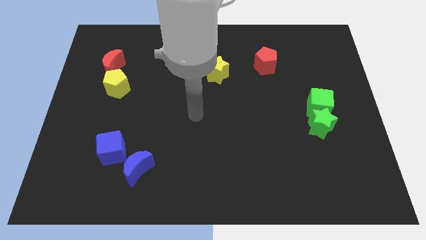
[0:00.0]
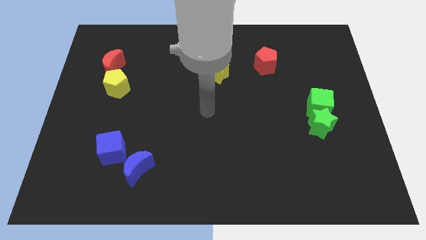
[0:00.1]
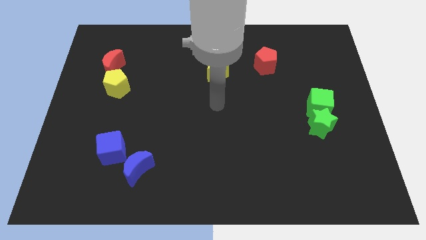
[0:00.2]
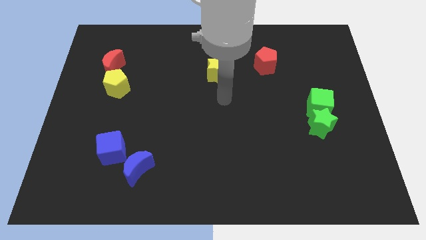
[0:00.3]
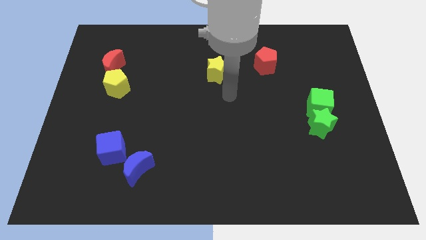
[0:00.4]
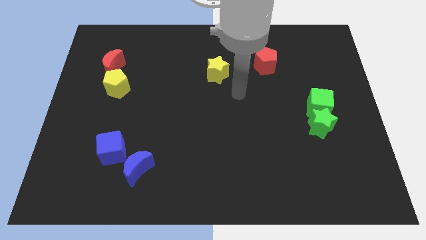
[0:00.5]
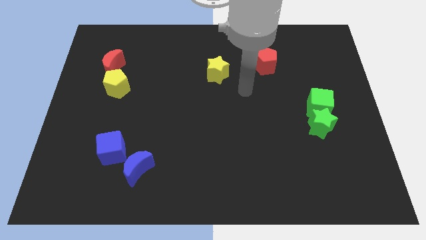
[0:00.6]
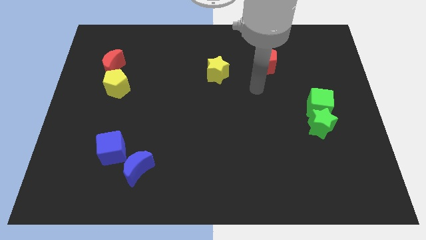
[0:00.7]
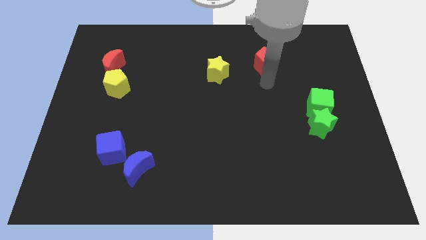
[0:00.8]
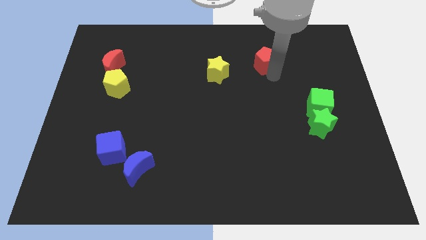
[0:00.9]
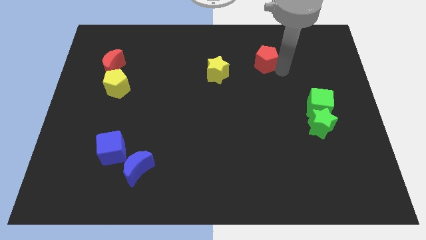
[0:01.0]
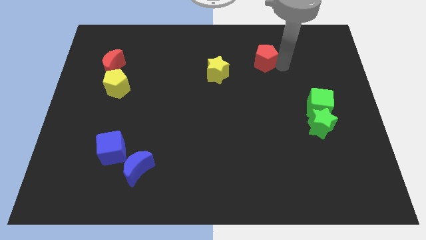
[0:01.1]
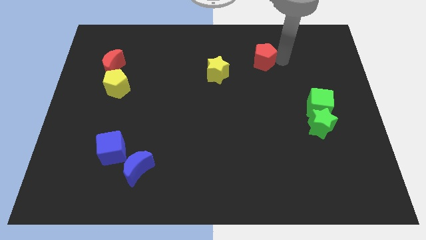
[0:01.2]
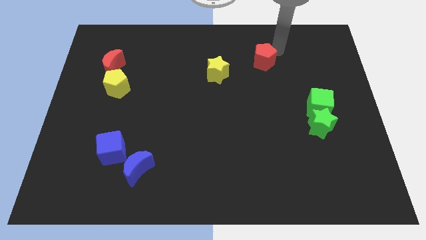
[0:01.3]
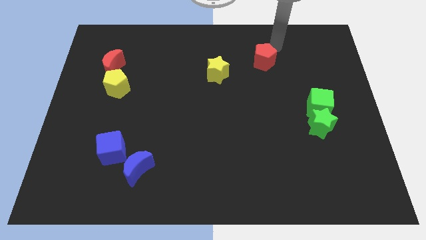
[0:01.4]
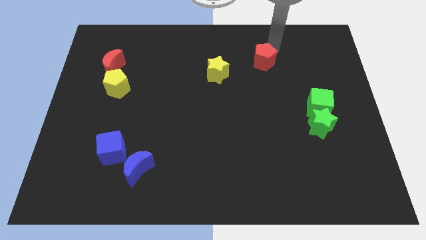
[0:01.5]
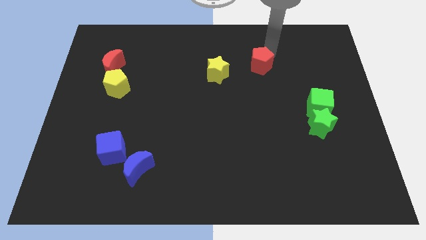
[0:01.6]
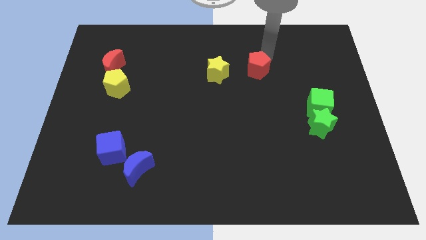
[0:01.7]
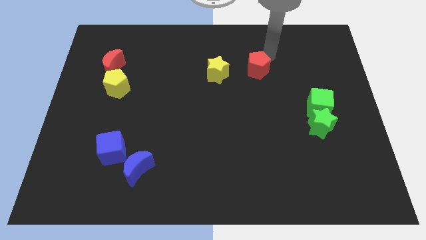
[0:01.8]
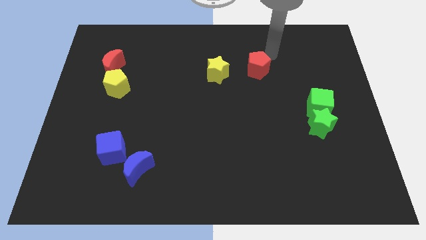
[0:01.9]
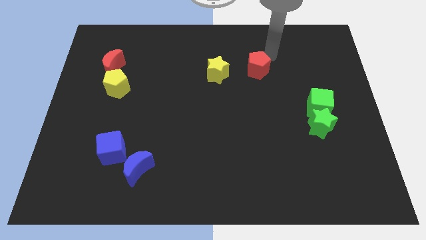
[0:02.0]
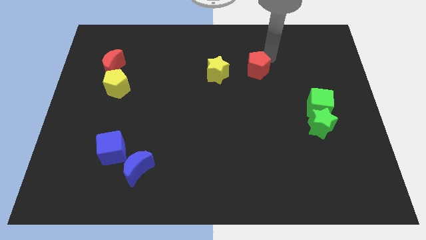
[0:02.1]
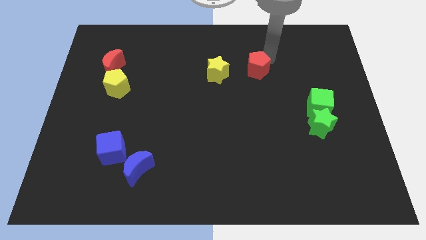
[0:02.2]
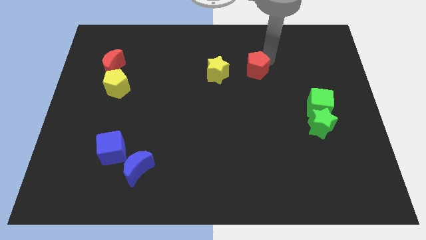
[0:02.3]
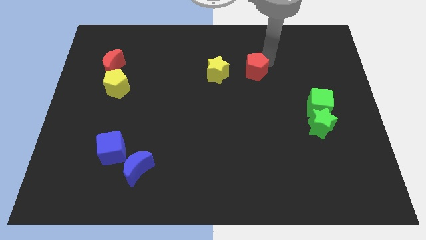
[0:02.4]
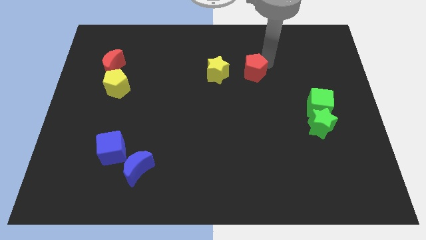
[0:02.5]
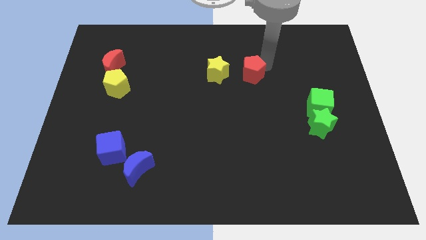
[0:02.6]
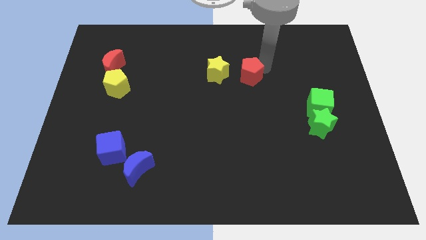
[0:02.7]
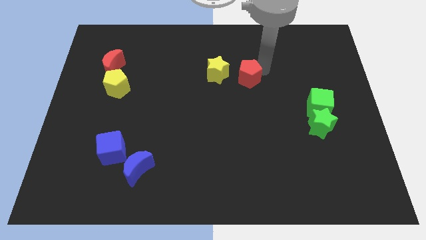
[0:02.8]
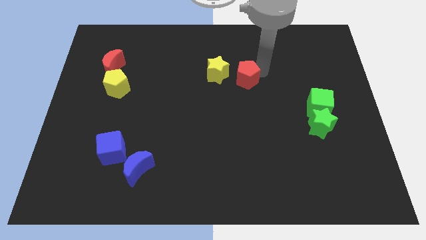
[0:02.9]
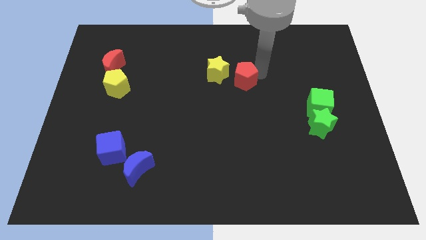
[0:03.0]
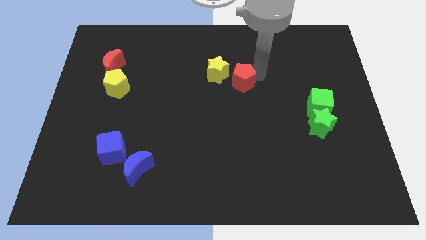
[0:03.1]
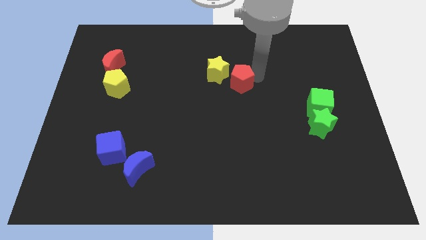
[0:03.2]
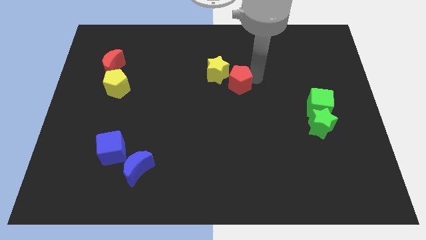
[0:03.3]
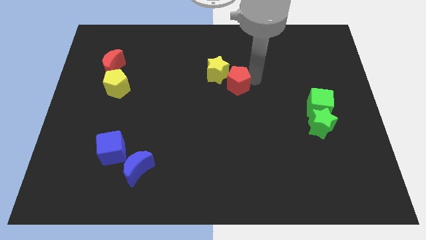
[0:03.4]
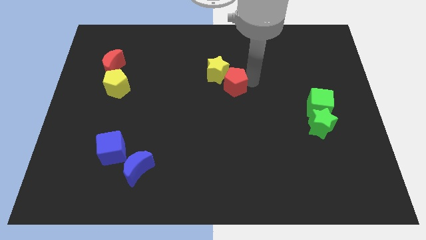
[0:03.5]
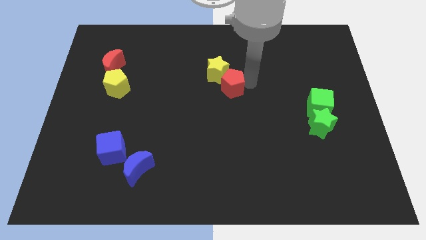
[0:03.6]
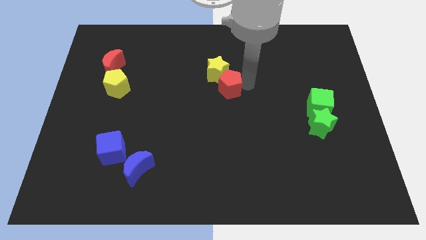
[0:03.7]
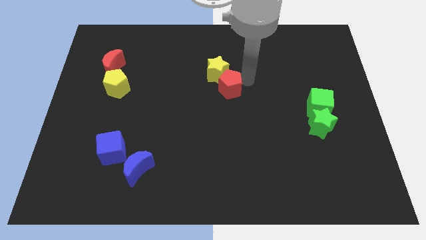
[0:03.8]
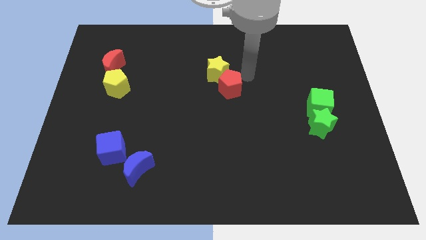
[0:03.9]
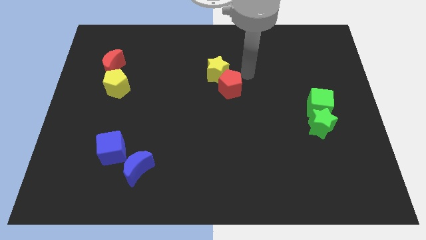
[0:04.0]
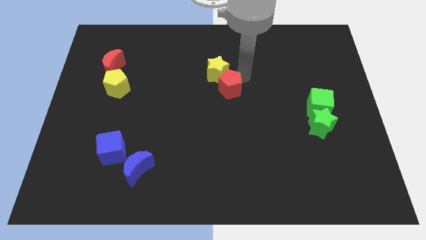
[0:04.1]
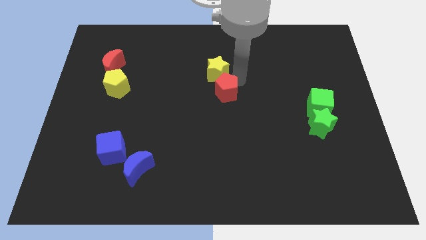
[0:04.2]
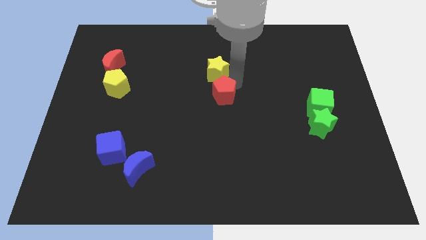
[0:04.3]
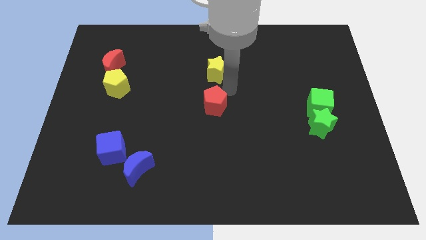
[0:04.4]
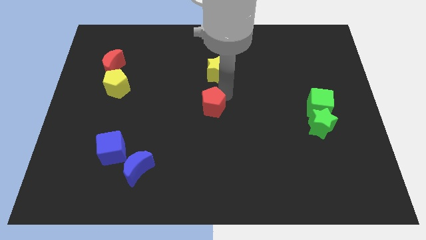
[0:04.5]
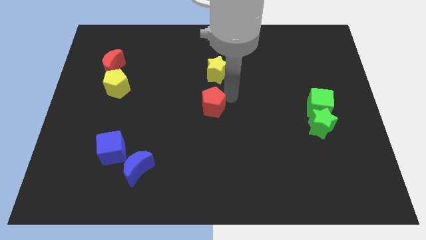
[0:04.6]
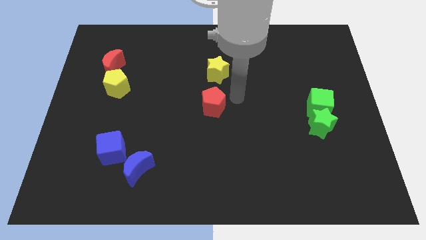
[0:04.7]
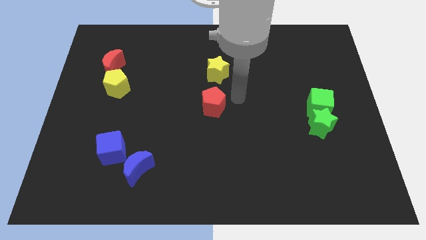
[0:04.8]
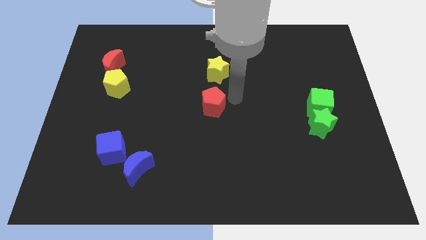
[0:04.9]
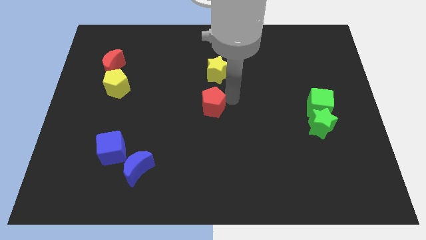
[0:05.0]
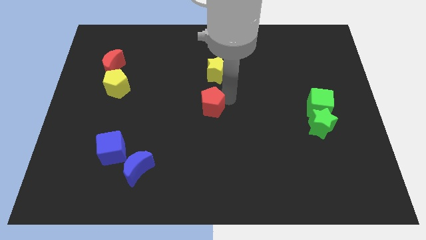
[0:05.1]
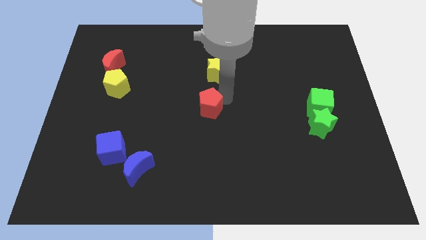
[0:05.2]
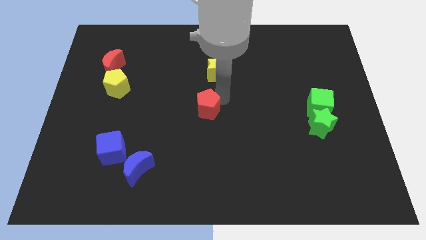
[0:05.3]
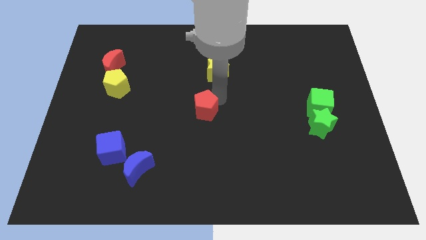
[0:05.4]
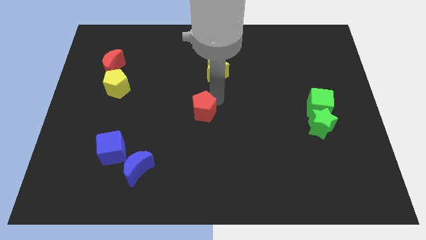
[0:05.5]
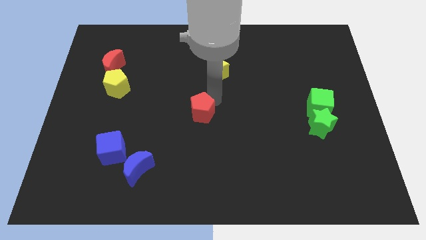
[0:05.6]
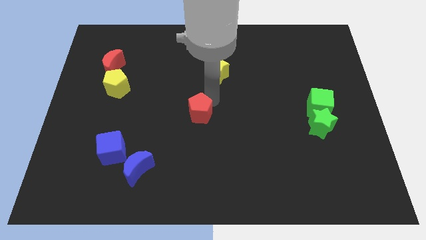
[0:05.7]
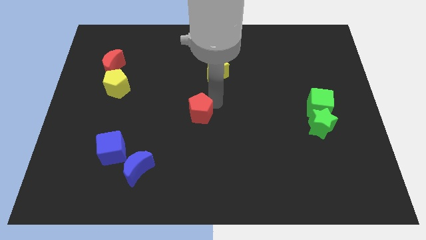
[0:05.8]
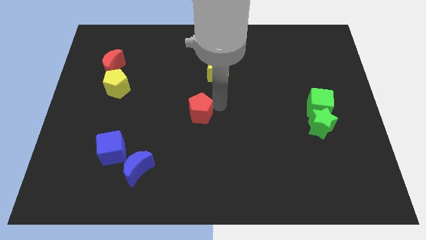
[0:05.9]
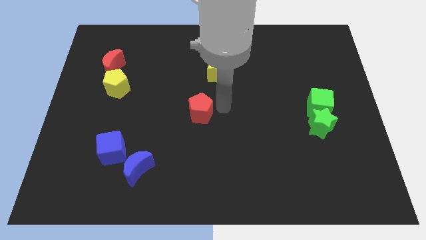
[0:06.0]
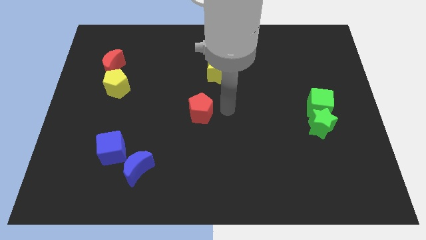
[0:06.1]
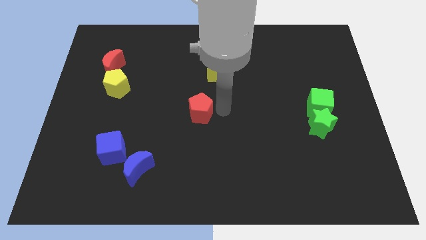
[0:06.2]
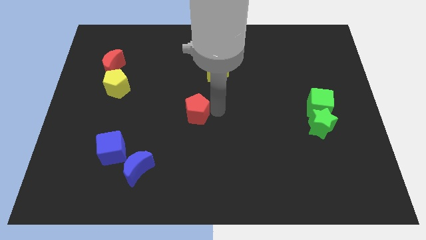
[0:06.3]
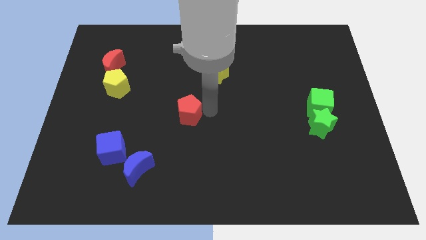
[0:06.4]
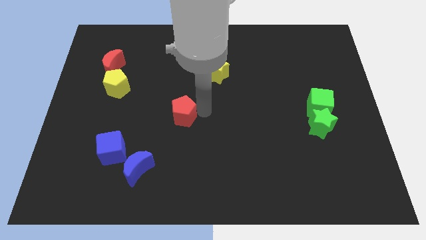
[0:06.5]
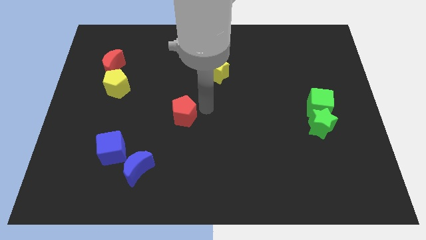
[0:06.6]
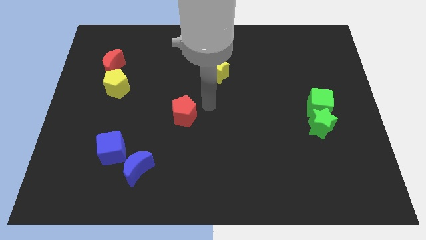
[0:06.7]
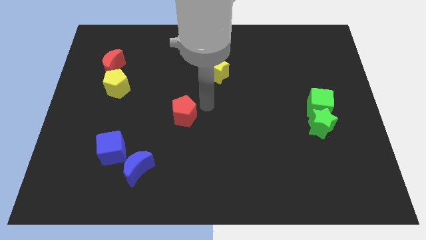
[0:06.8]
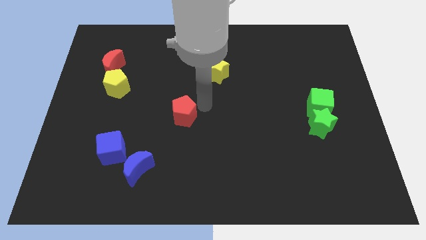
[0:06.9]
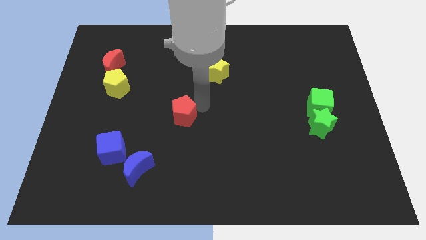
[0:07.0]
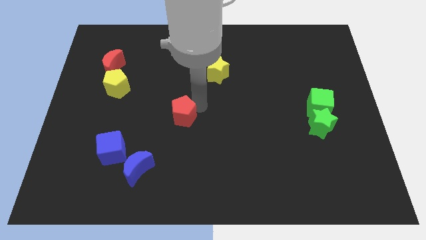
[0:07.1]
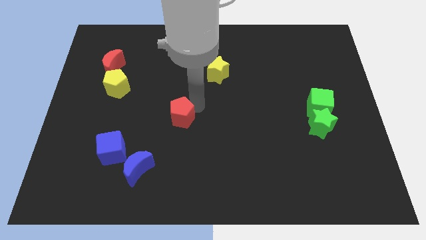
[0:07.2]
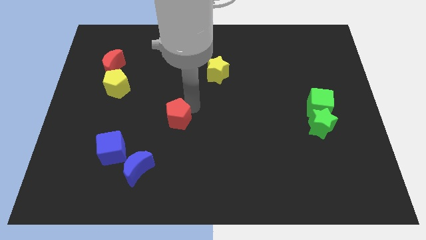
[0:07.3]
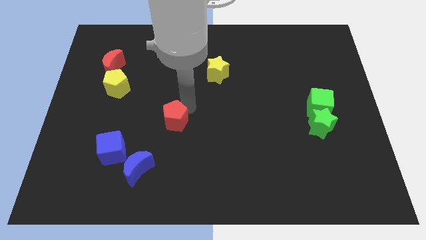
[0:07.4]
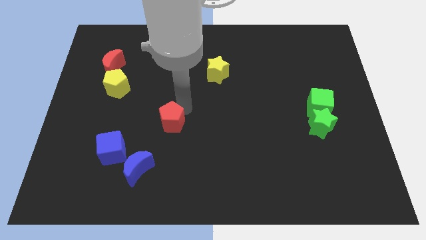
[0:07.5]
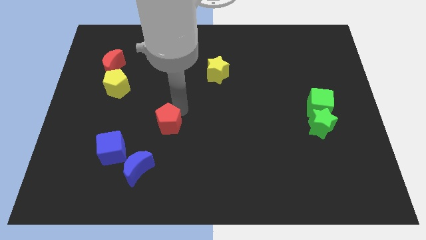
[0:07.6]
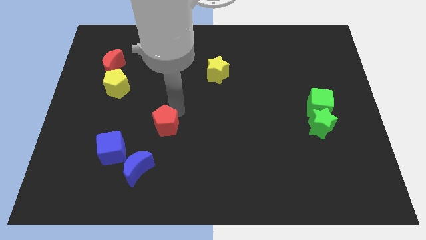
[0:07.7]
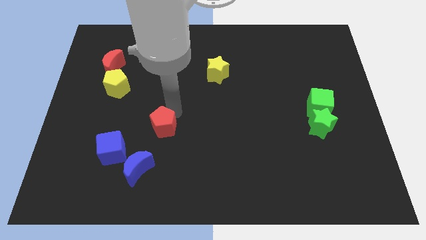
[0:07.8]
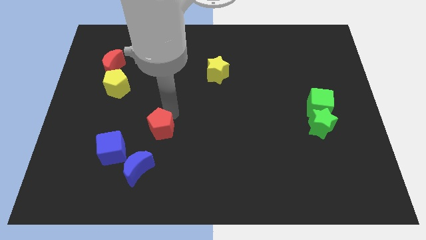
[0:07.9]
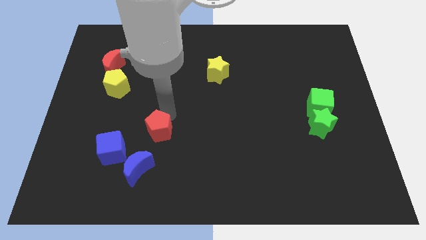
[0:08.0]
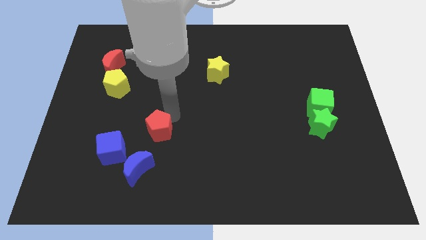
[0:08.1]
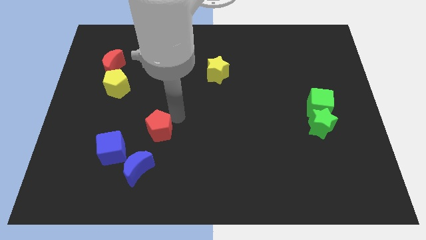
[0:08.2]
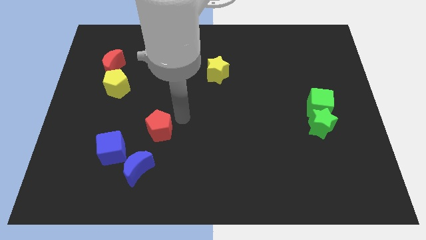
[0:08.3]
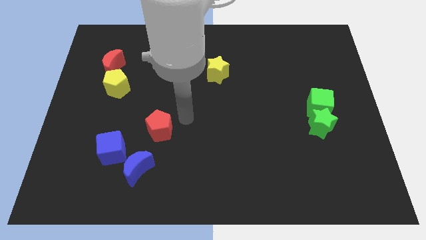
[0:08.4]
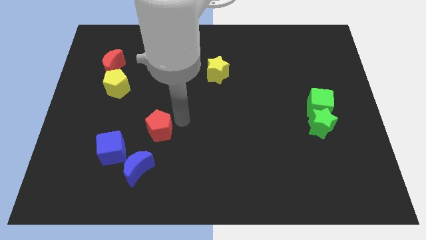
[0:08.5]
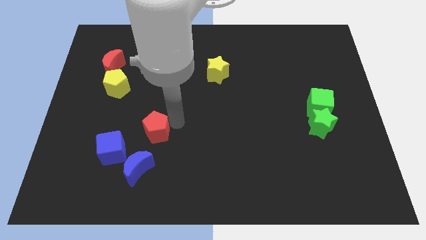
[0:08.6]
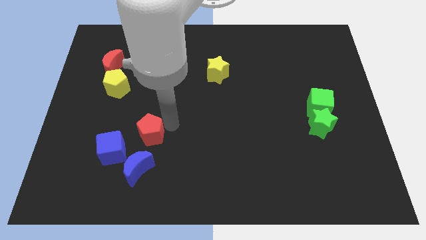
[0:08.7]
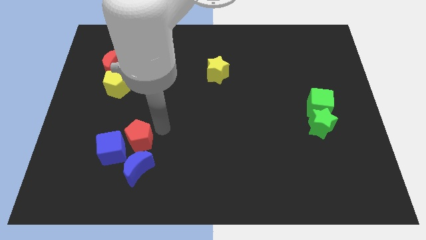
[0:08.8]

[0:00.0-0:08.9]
put the red pentagon close to the blue cube
